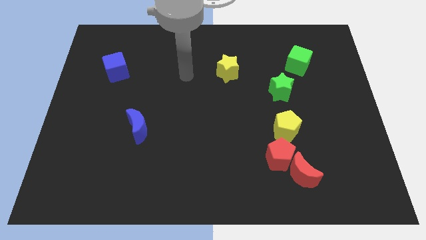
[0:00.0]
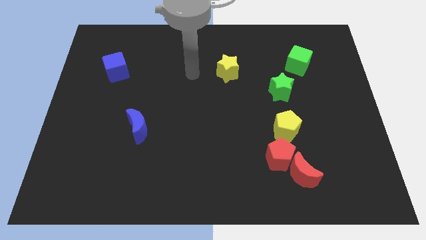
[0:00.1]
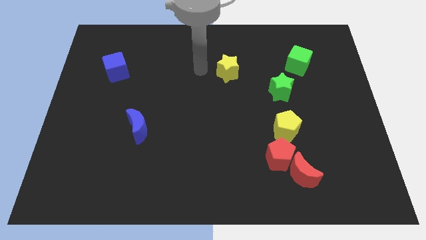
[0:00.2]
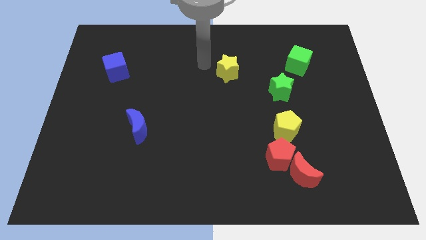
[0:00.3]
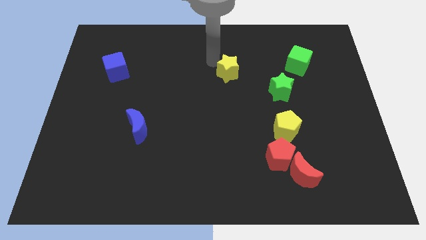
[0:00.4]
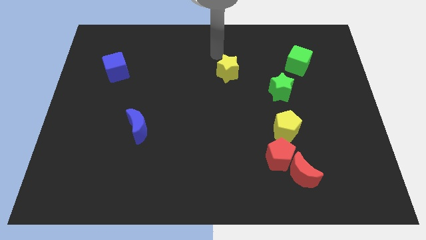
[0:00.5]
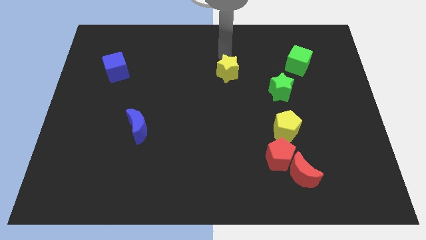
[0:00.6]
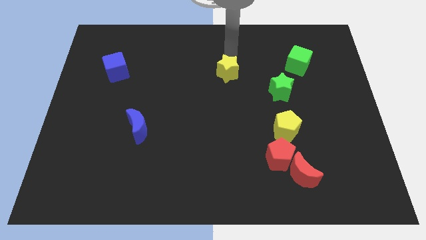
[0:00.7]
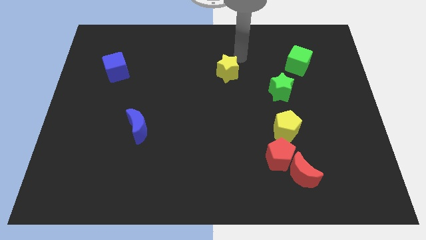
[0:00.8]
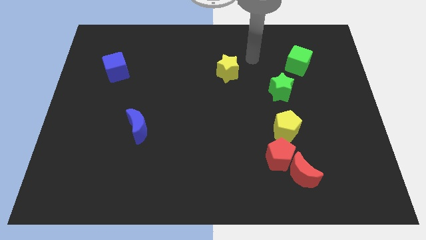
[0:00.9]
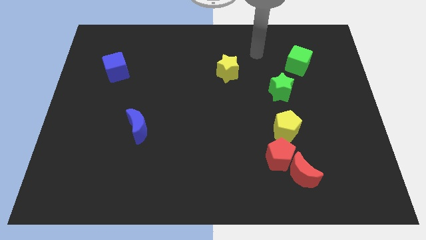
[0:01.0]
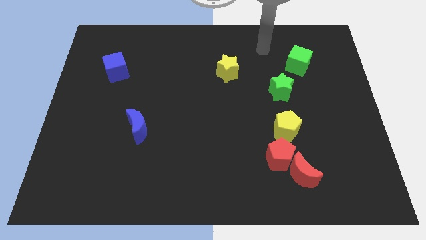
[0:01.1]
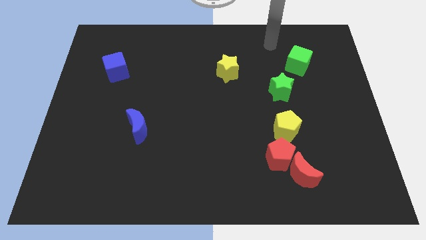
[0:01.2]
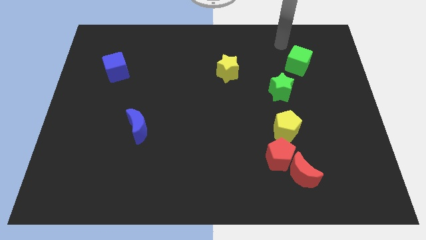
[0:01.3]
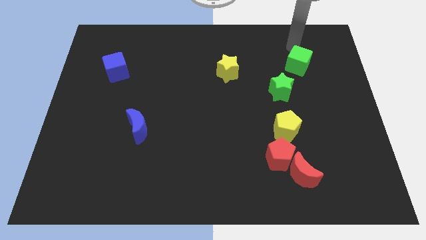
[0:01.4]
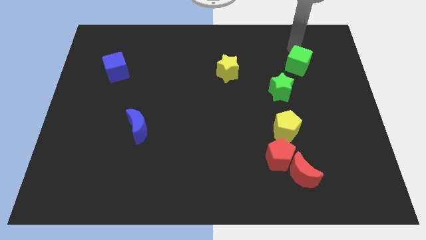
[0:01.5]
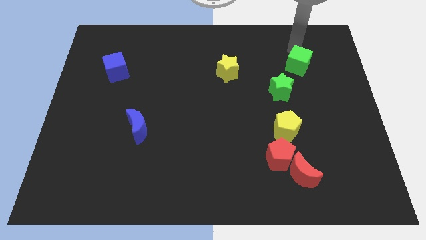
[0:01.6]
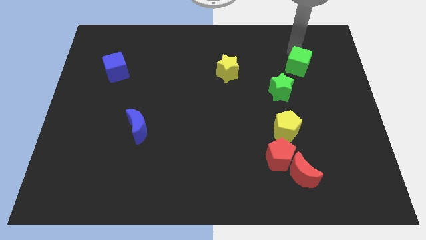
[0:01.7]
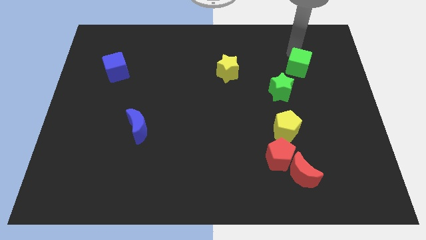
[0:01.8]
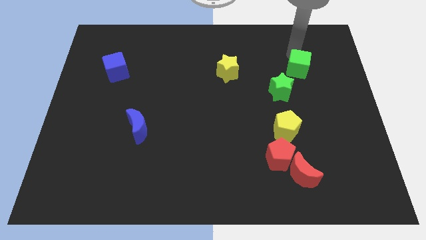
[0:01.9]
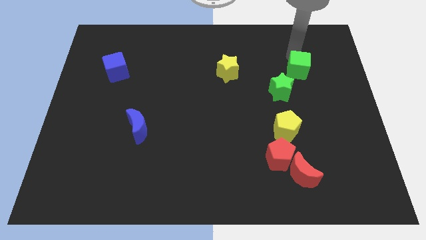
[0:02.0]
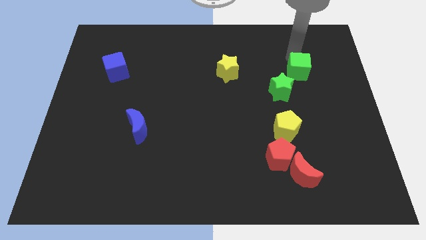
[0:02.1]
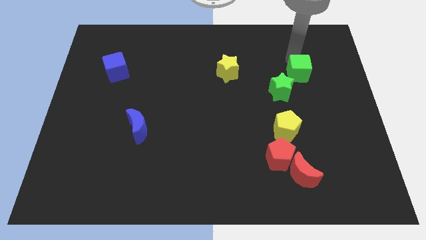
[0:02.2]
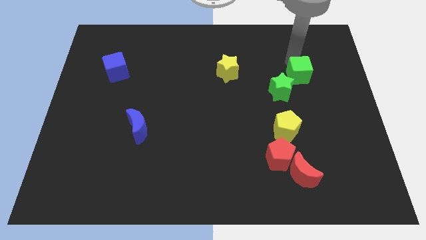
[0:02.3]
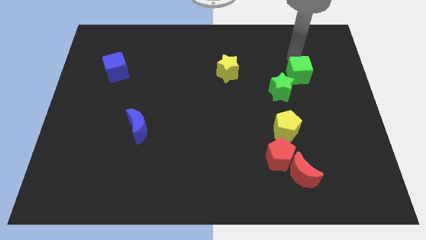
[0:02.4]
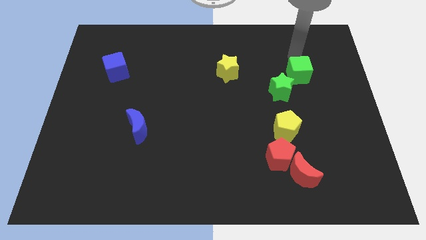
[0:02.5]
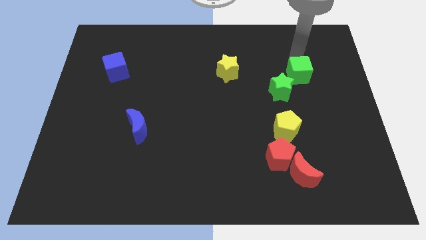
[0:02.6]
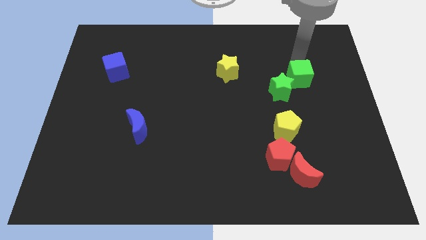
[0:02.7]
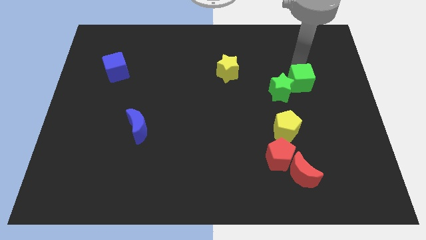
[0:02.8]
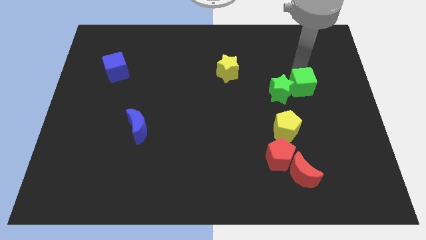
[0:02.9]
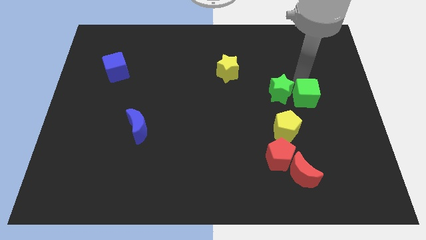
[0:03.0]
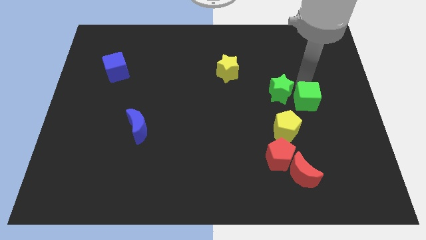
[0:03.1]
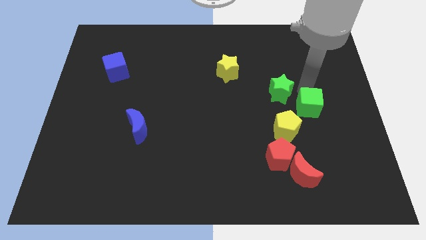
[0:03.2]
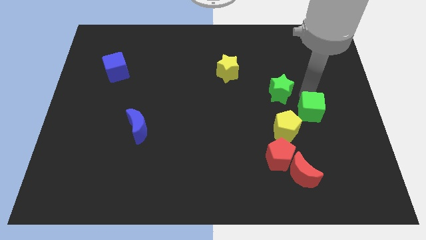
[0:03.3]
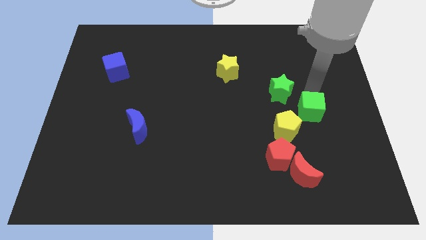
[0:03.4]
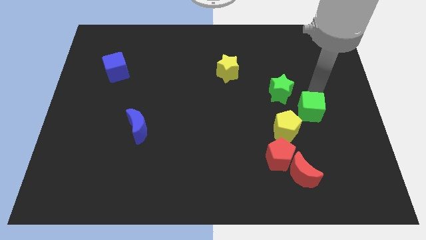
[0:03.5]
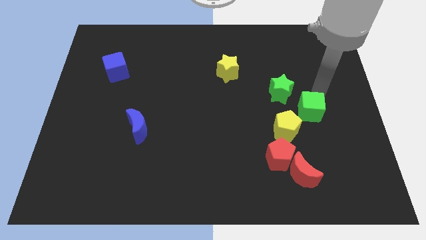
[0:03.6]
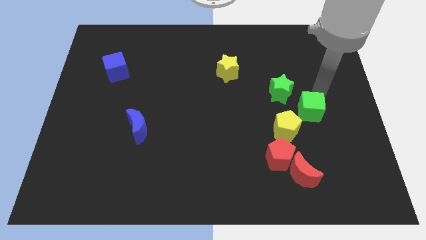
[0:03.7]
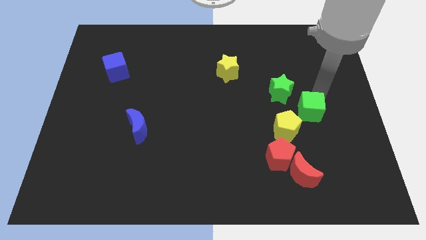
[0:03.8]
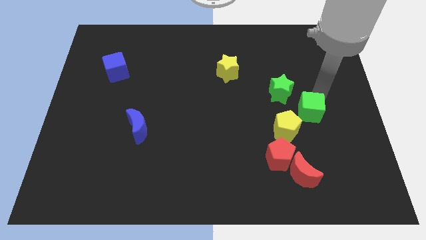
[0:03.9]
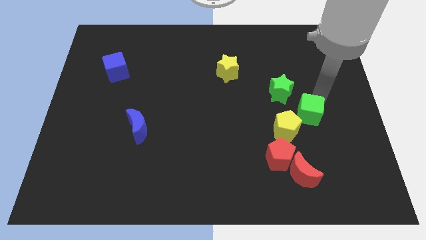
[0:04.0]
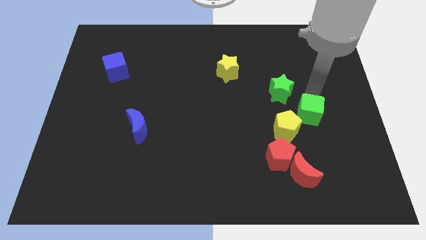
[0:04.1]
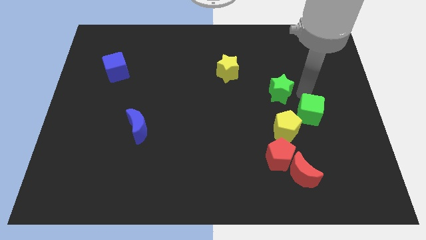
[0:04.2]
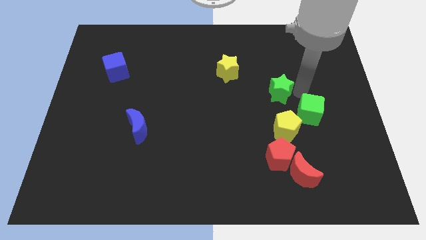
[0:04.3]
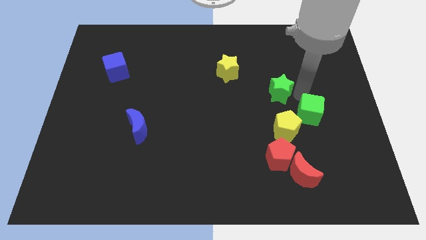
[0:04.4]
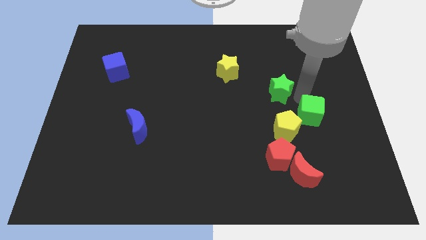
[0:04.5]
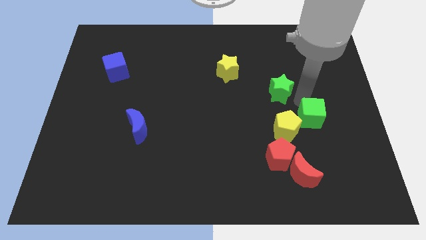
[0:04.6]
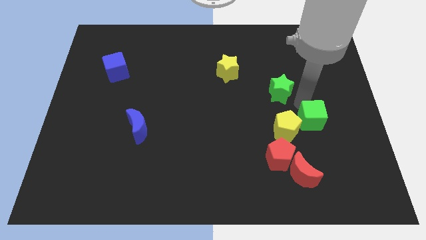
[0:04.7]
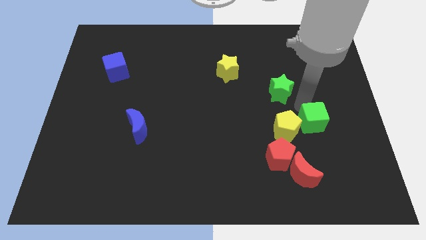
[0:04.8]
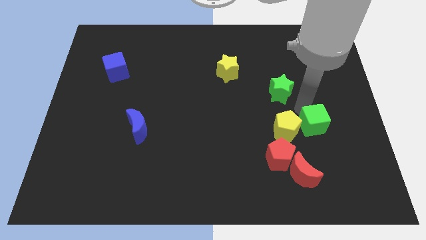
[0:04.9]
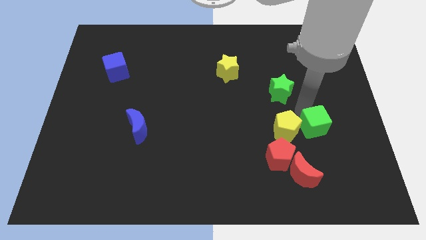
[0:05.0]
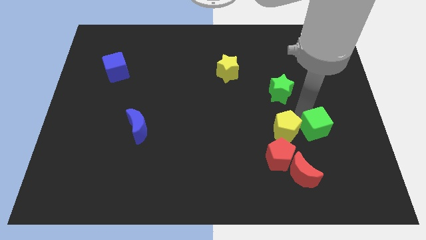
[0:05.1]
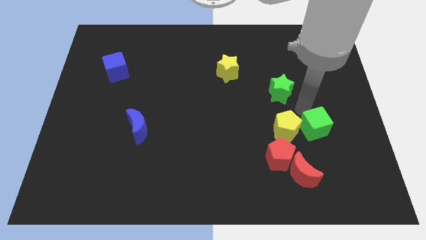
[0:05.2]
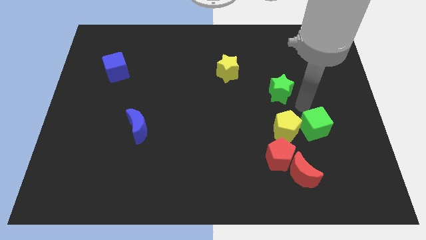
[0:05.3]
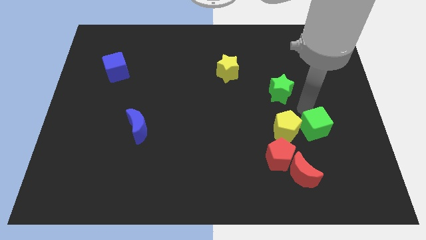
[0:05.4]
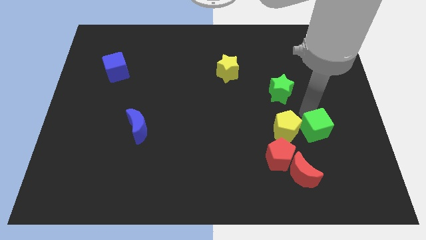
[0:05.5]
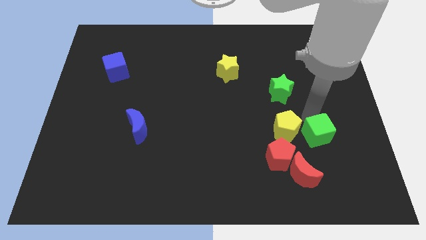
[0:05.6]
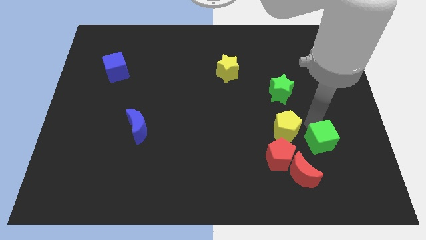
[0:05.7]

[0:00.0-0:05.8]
push the green cube to the right of the red pentagon

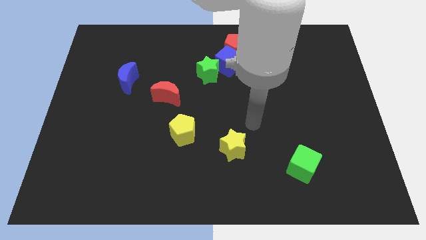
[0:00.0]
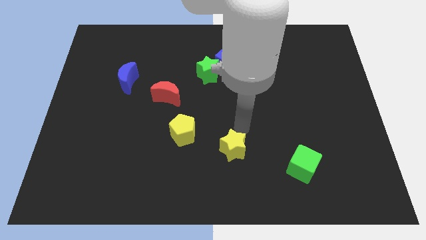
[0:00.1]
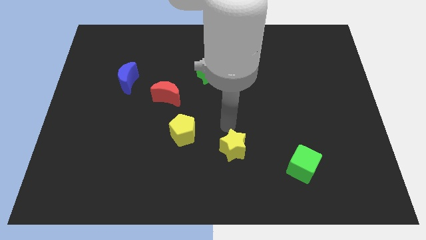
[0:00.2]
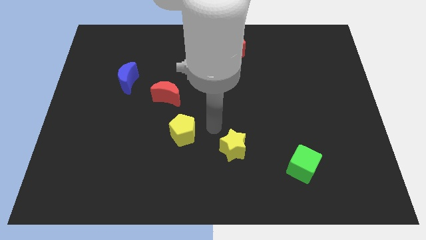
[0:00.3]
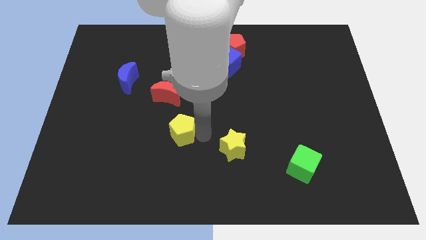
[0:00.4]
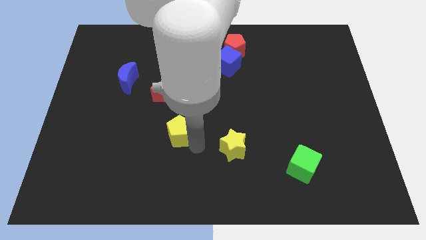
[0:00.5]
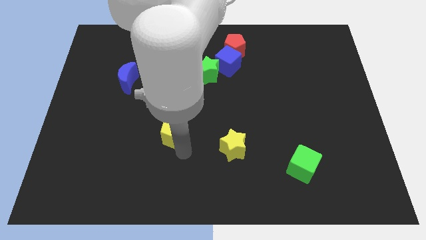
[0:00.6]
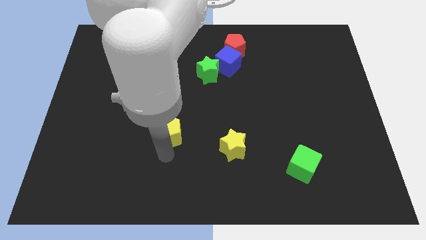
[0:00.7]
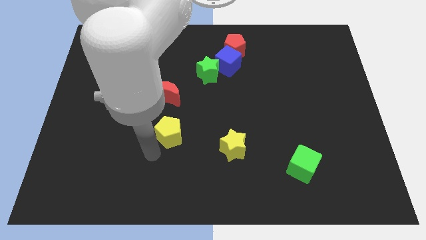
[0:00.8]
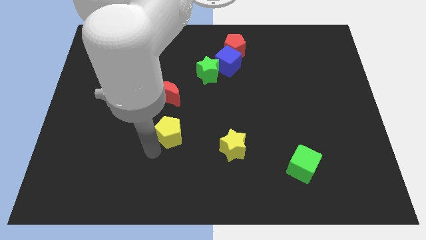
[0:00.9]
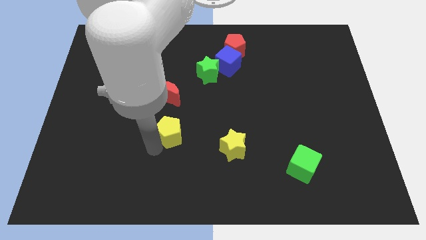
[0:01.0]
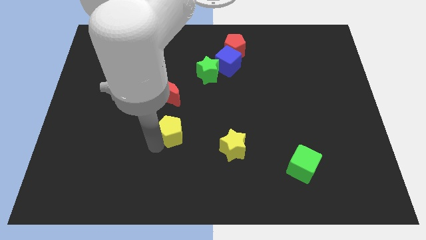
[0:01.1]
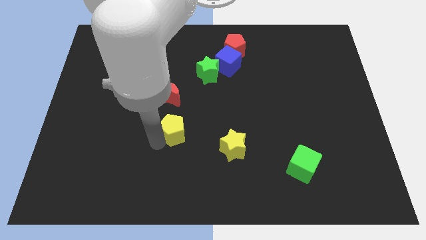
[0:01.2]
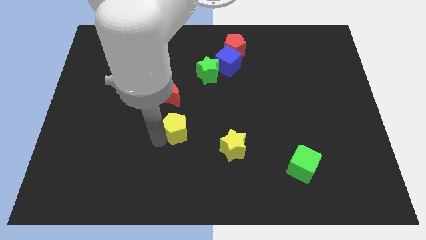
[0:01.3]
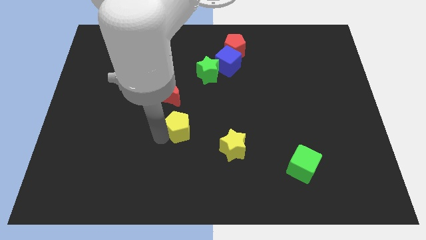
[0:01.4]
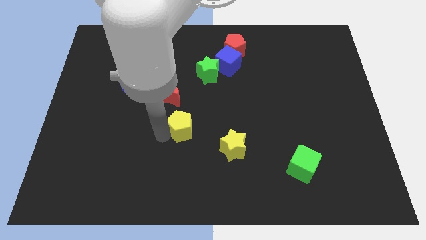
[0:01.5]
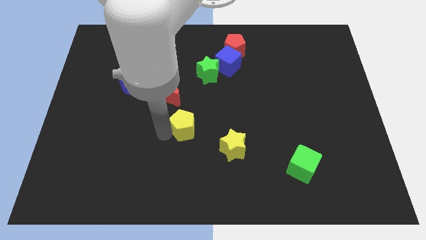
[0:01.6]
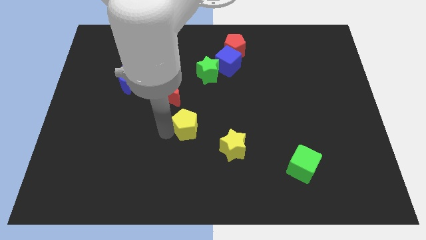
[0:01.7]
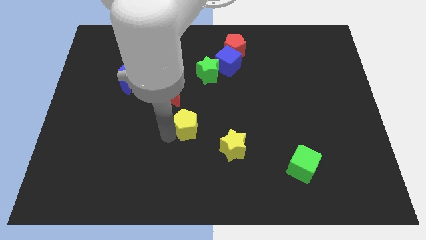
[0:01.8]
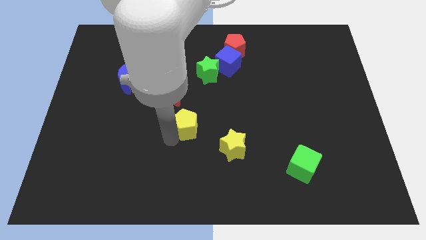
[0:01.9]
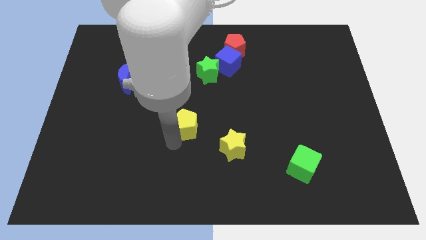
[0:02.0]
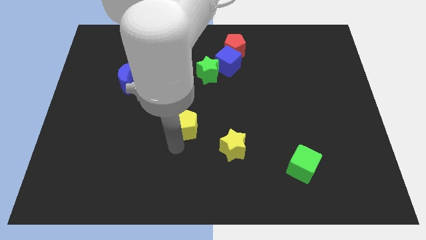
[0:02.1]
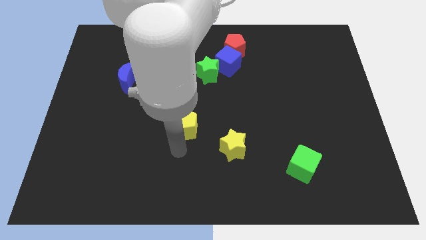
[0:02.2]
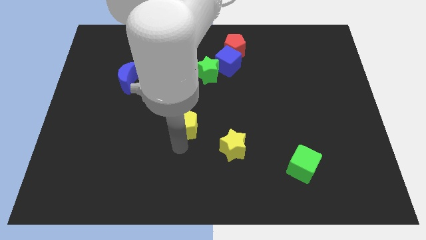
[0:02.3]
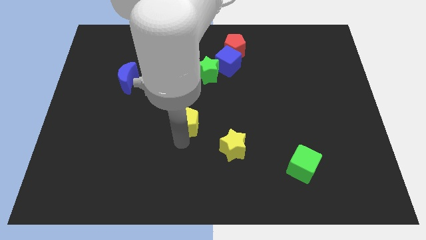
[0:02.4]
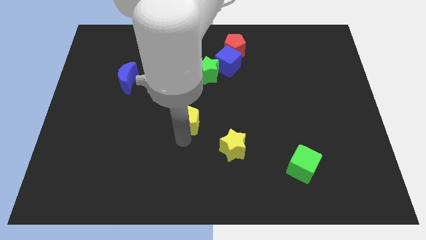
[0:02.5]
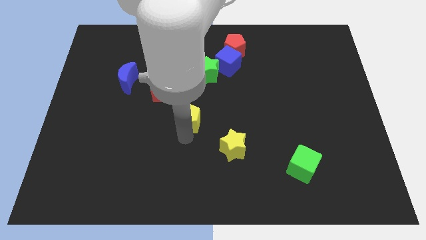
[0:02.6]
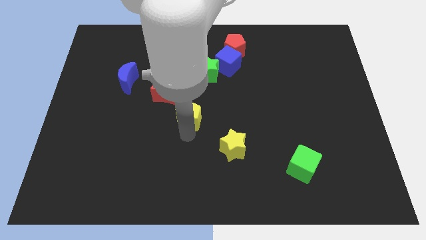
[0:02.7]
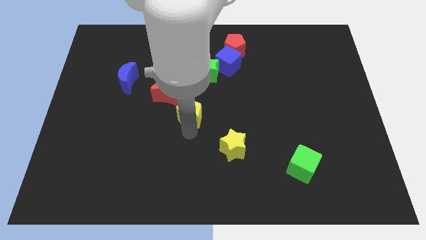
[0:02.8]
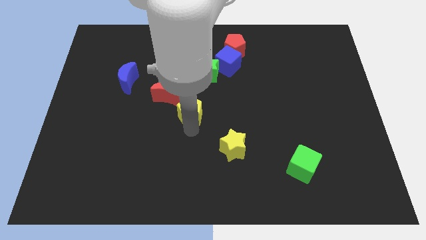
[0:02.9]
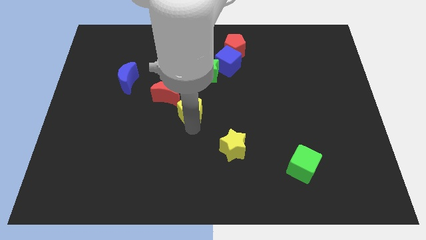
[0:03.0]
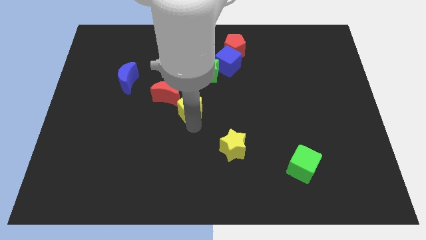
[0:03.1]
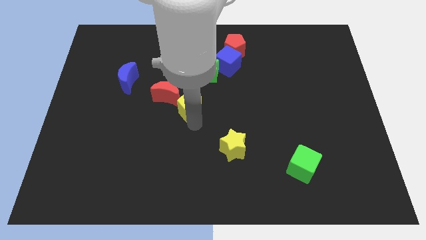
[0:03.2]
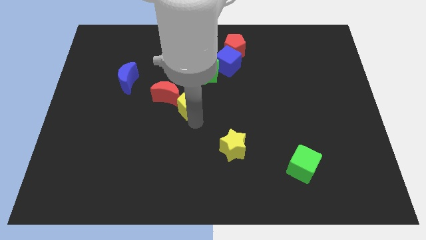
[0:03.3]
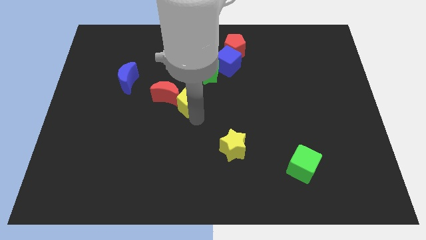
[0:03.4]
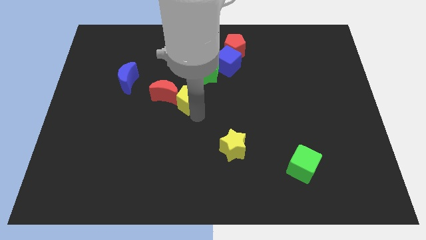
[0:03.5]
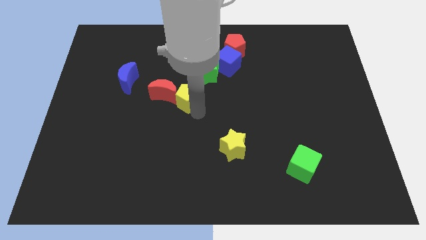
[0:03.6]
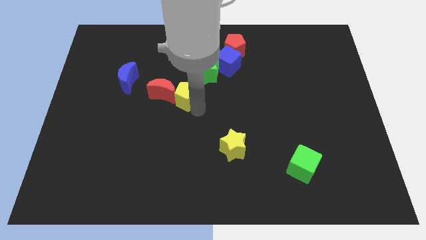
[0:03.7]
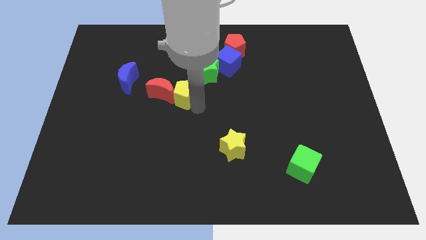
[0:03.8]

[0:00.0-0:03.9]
move the yellow pentagon diagonally up and to the right of the red moon
